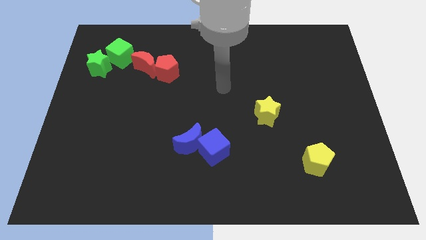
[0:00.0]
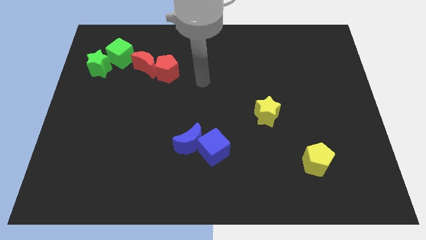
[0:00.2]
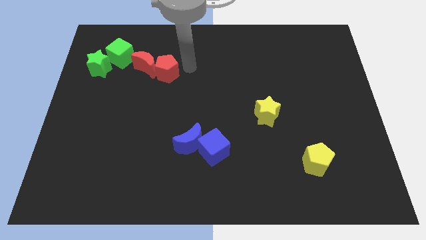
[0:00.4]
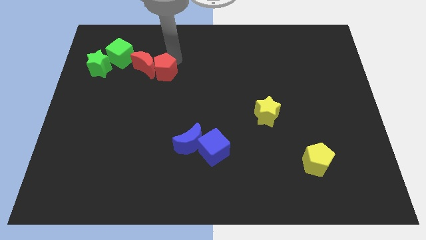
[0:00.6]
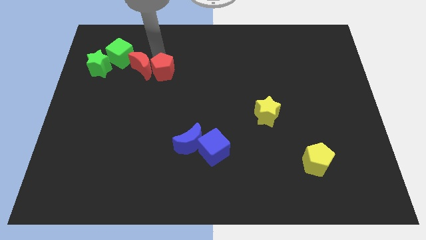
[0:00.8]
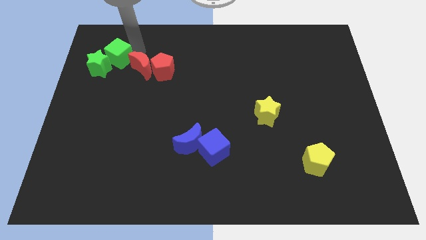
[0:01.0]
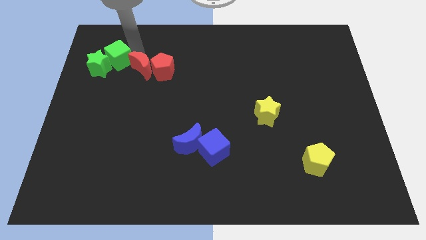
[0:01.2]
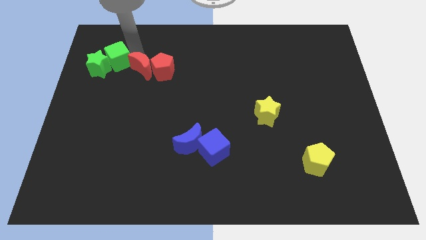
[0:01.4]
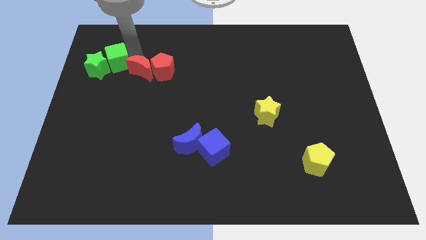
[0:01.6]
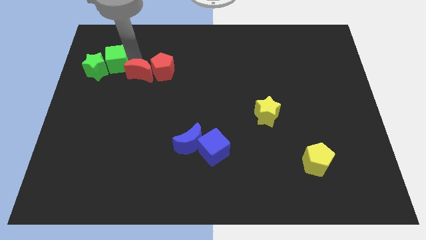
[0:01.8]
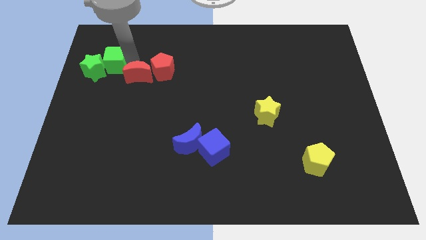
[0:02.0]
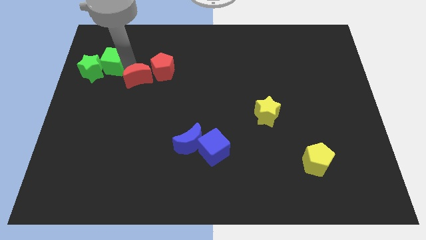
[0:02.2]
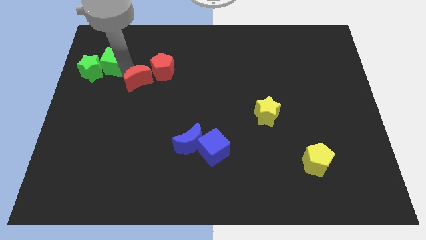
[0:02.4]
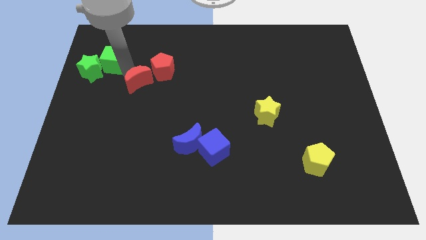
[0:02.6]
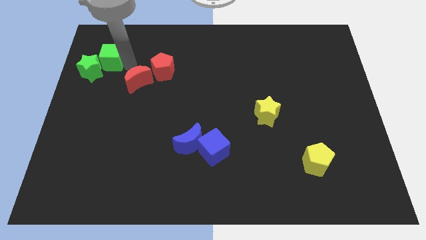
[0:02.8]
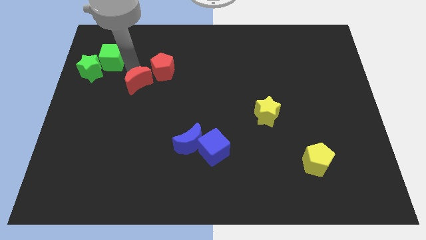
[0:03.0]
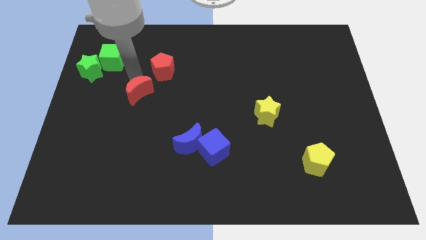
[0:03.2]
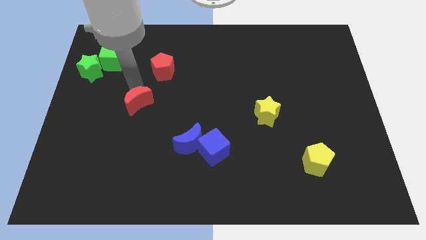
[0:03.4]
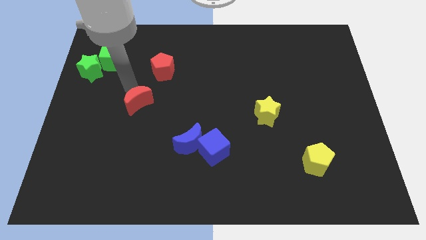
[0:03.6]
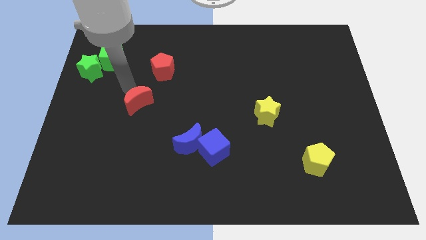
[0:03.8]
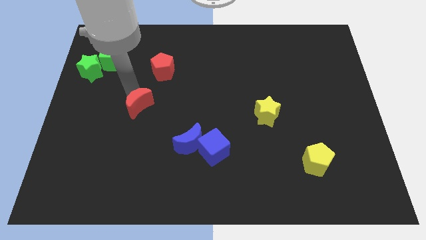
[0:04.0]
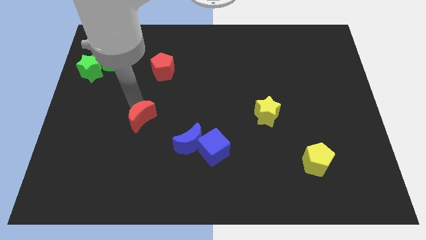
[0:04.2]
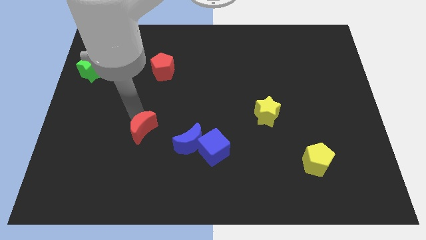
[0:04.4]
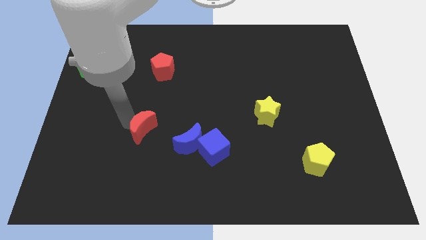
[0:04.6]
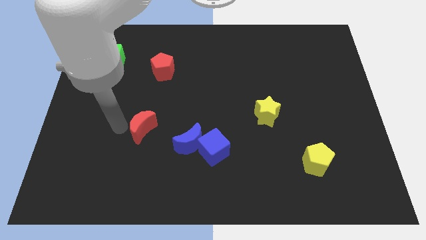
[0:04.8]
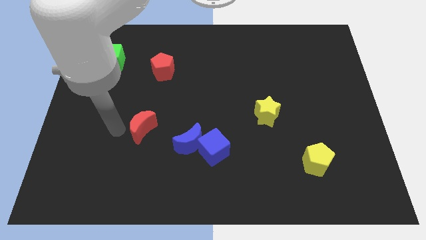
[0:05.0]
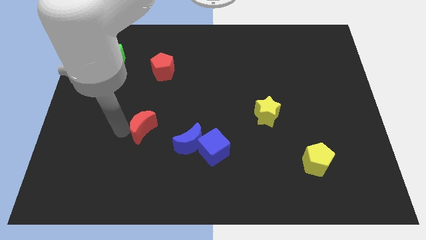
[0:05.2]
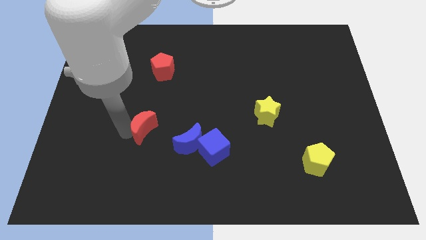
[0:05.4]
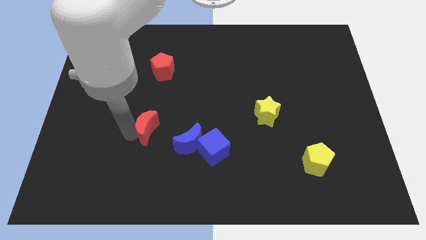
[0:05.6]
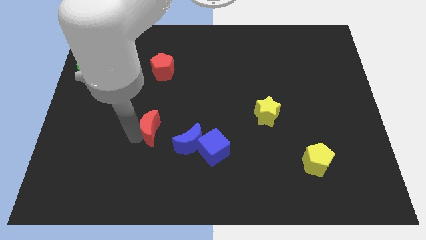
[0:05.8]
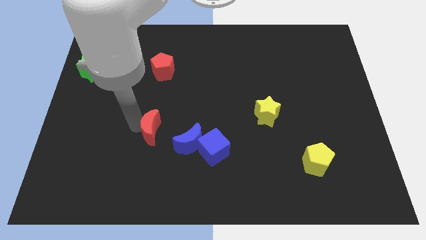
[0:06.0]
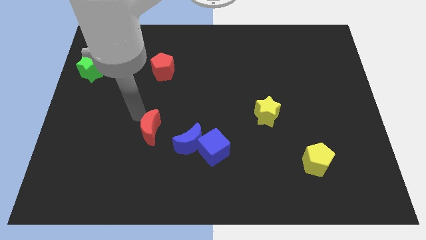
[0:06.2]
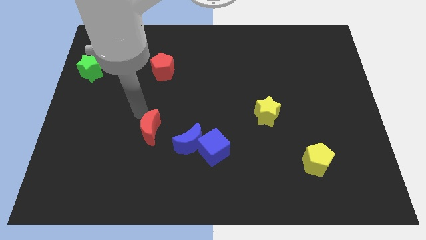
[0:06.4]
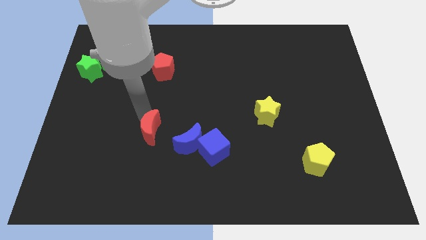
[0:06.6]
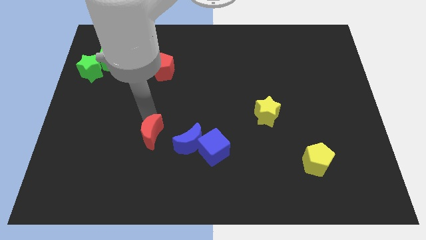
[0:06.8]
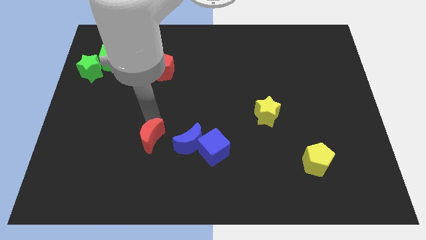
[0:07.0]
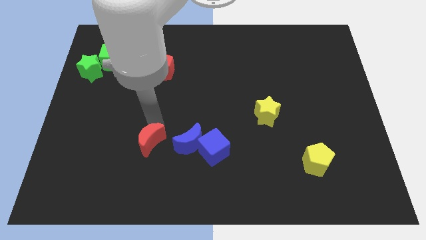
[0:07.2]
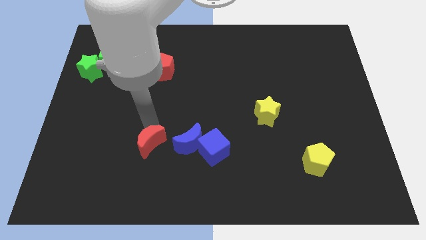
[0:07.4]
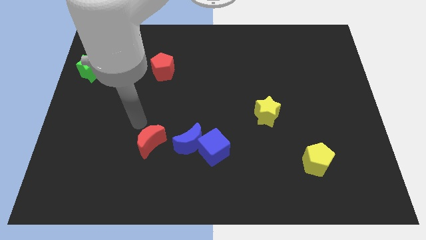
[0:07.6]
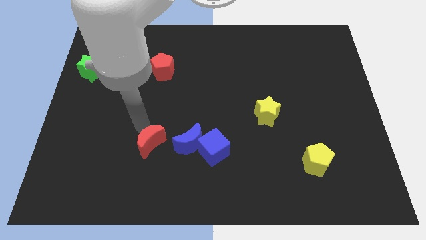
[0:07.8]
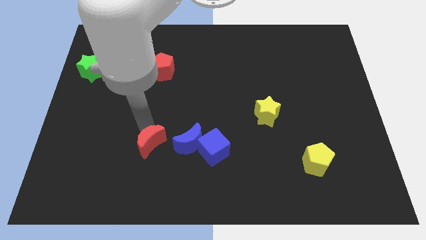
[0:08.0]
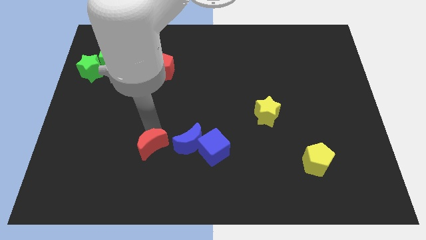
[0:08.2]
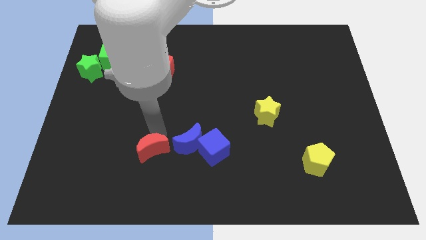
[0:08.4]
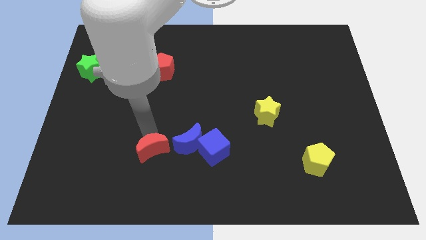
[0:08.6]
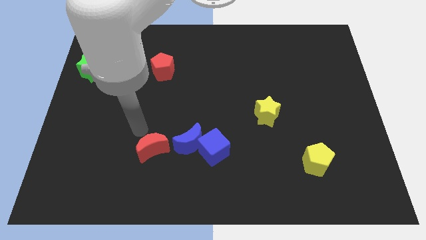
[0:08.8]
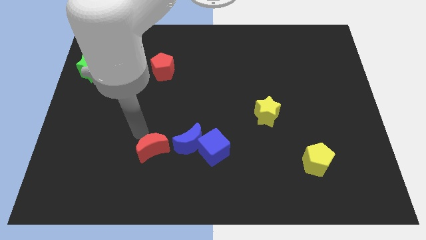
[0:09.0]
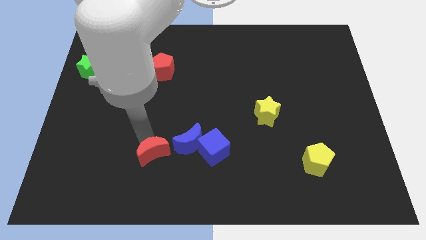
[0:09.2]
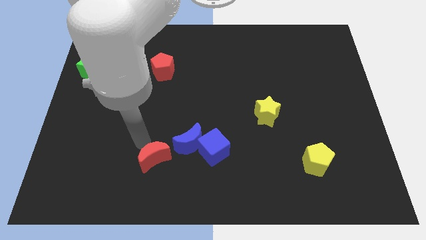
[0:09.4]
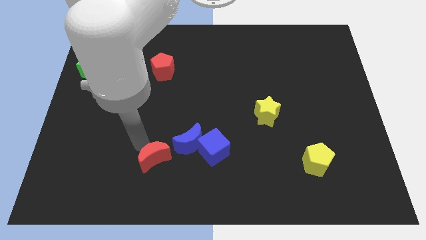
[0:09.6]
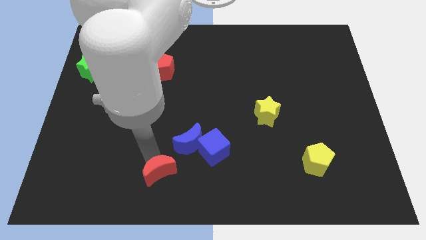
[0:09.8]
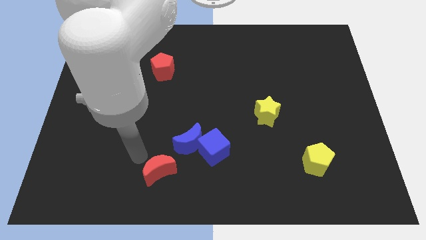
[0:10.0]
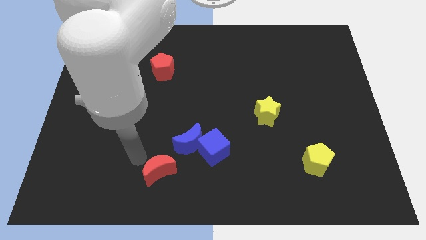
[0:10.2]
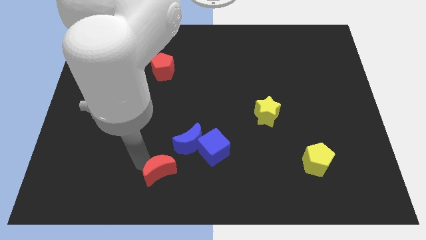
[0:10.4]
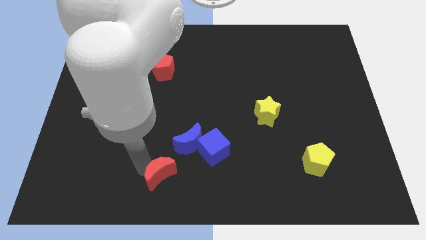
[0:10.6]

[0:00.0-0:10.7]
slide the red moon to the bottom side

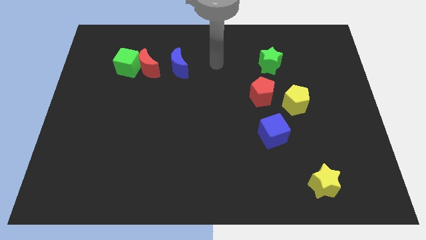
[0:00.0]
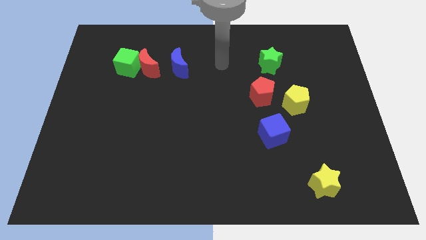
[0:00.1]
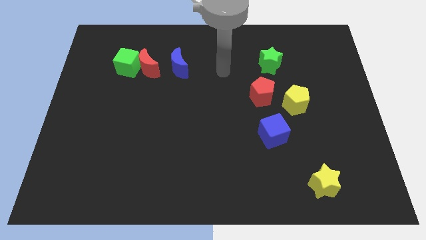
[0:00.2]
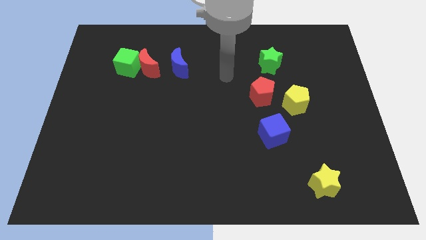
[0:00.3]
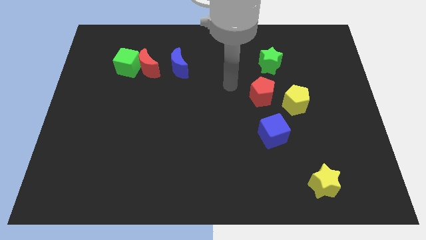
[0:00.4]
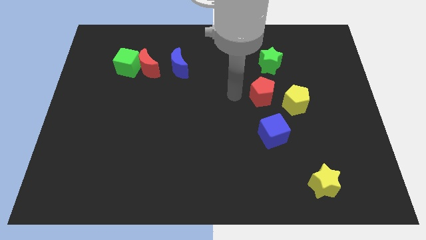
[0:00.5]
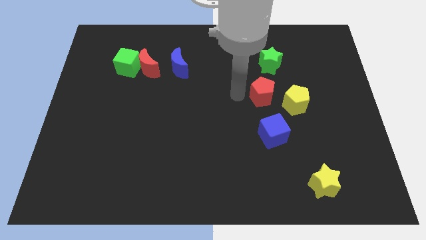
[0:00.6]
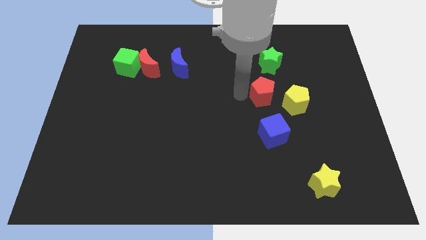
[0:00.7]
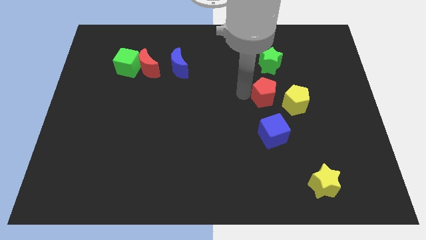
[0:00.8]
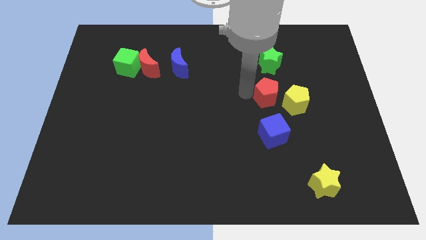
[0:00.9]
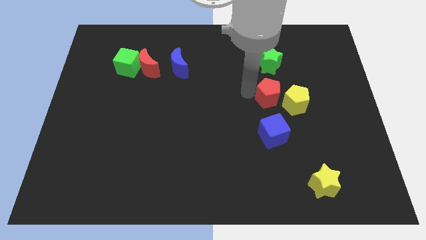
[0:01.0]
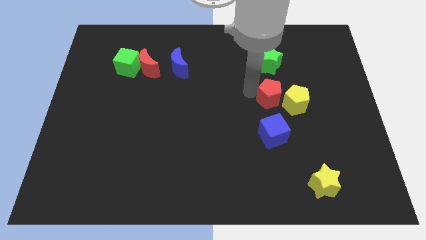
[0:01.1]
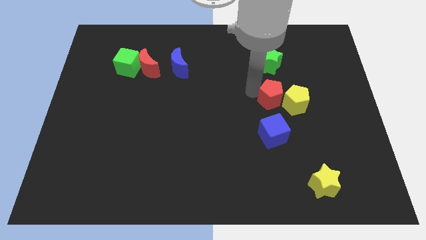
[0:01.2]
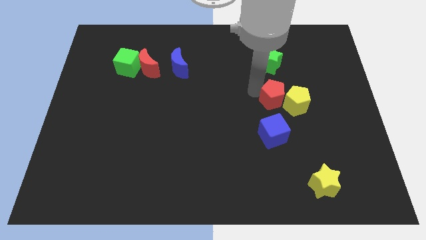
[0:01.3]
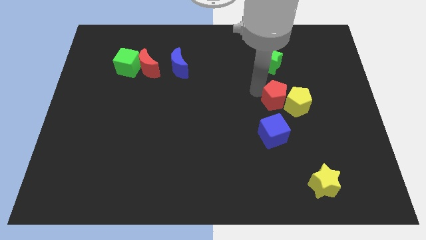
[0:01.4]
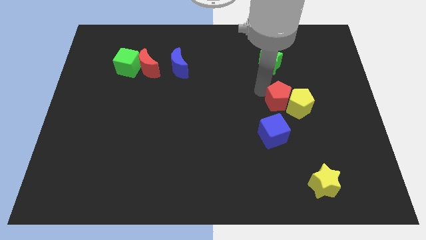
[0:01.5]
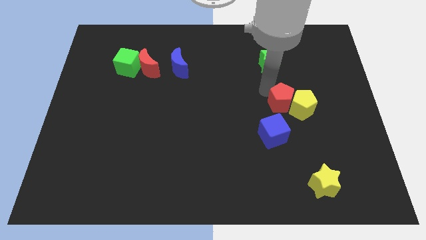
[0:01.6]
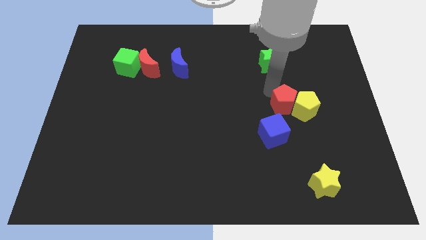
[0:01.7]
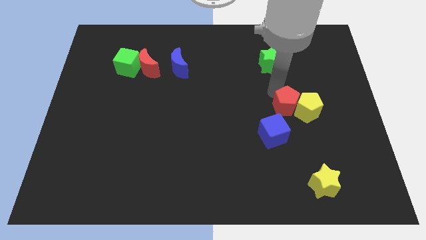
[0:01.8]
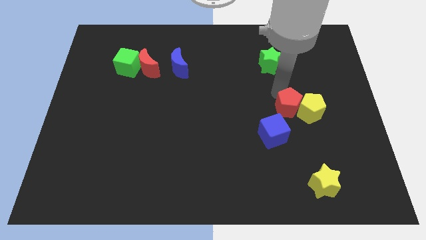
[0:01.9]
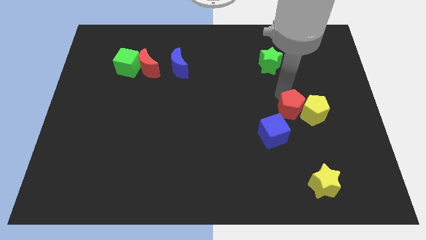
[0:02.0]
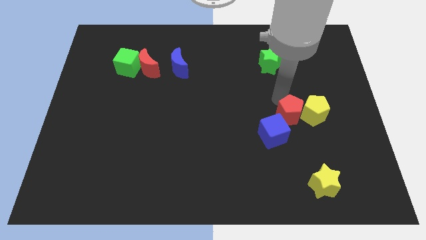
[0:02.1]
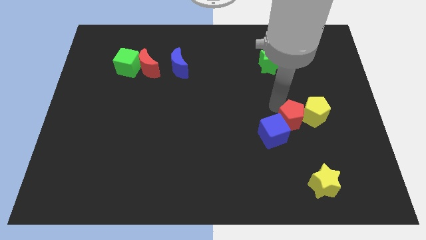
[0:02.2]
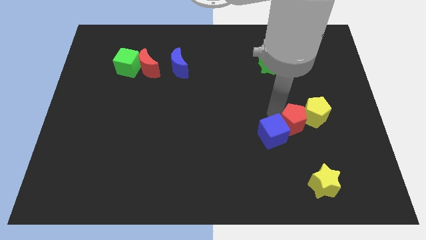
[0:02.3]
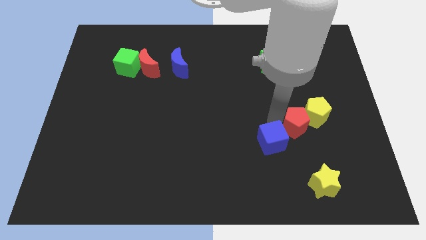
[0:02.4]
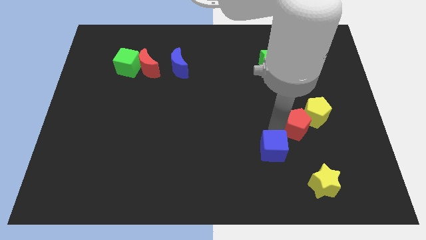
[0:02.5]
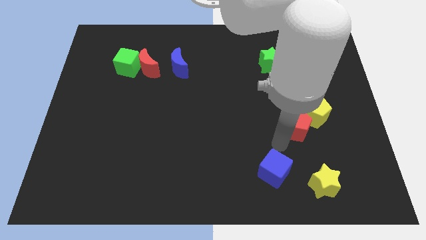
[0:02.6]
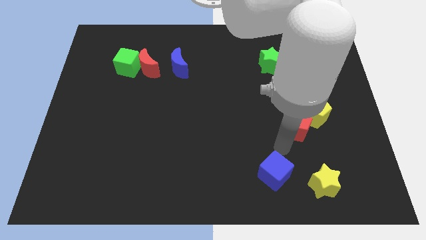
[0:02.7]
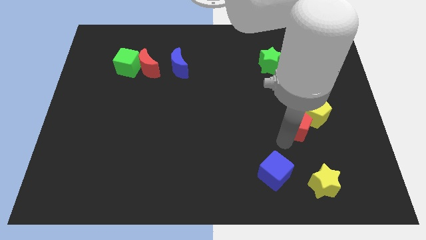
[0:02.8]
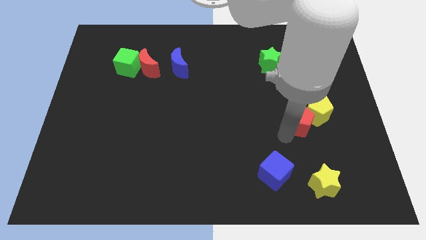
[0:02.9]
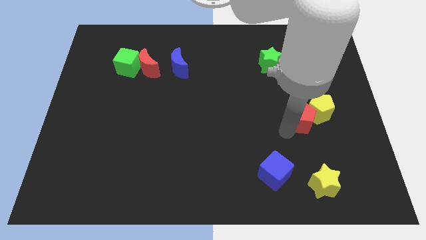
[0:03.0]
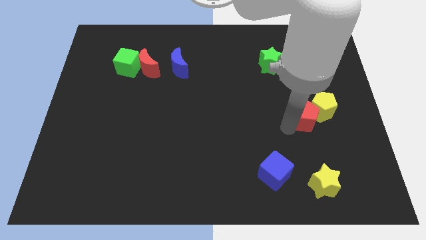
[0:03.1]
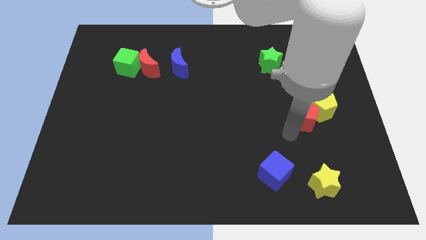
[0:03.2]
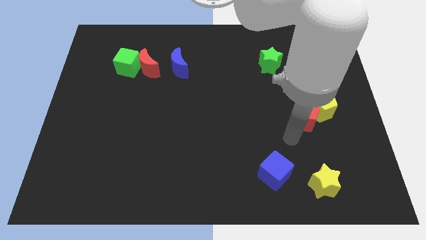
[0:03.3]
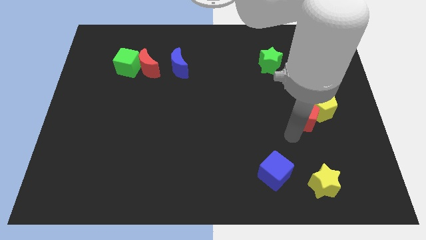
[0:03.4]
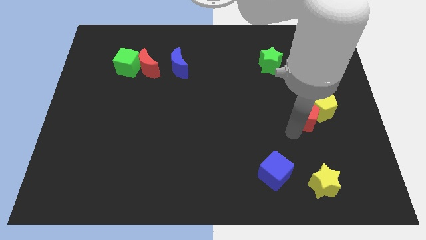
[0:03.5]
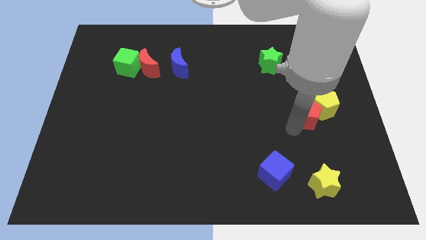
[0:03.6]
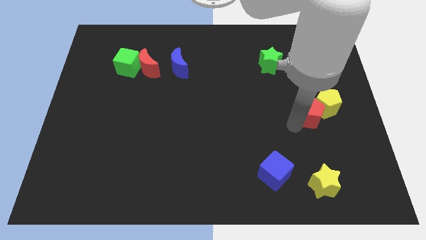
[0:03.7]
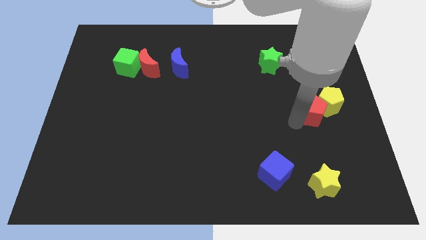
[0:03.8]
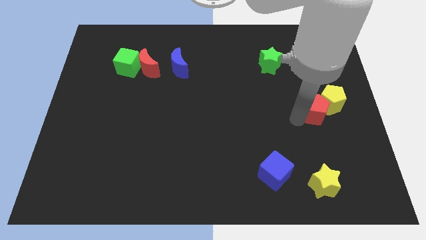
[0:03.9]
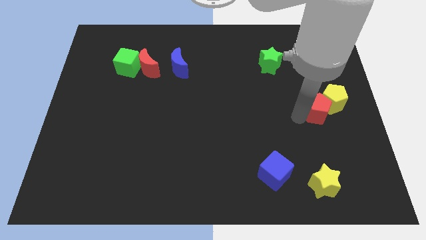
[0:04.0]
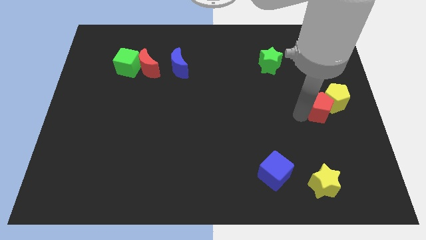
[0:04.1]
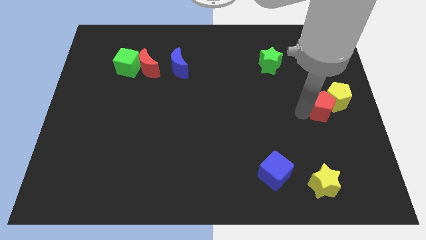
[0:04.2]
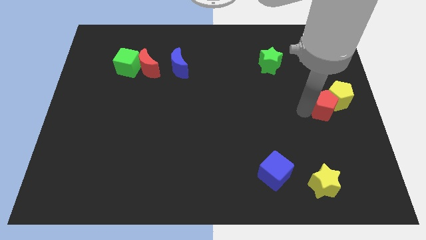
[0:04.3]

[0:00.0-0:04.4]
push the red pentagon to the right side
